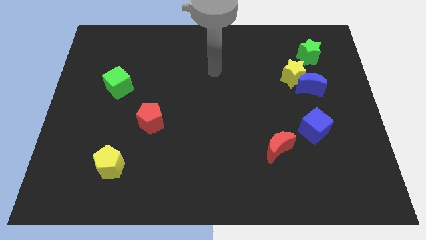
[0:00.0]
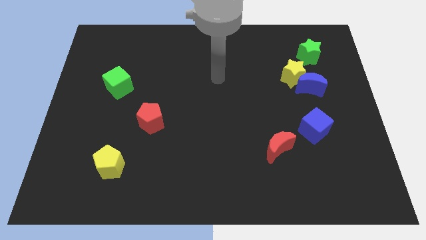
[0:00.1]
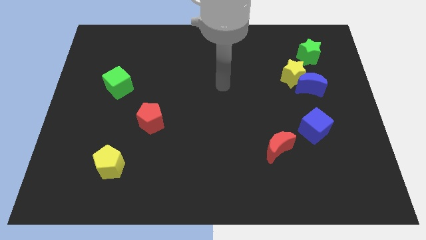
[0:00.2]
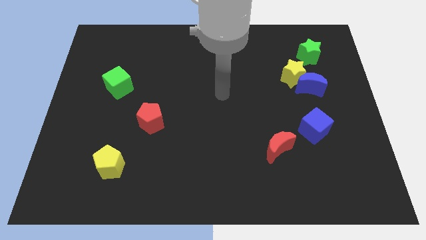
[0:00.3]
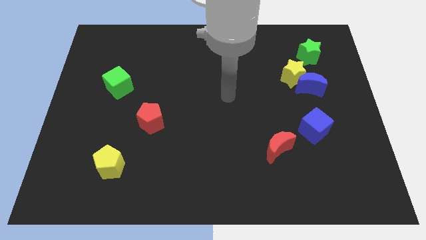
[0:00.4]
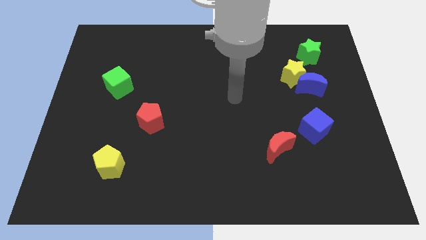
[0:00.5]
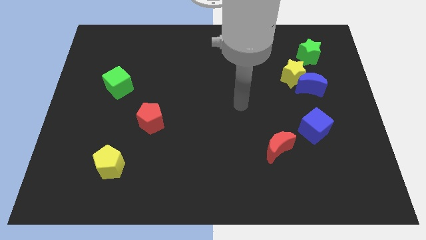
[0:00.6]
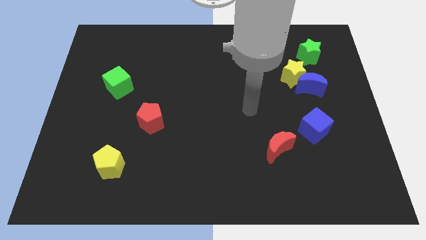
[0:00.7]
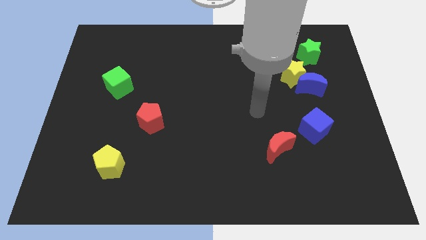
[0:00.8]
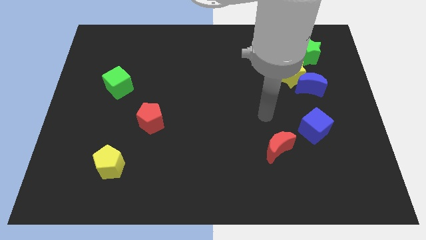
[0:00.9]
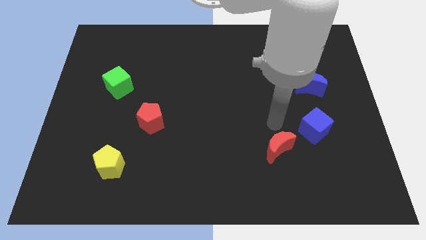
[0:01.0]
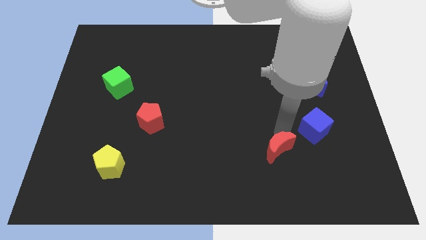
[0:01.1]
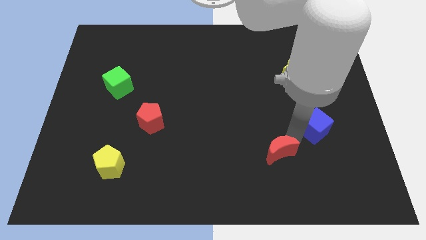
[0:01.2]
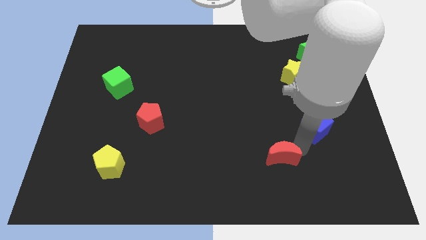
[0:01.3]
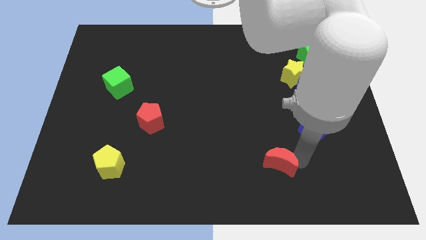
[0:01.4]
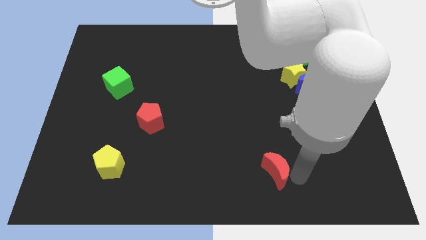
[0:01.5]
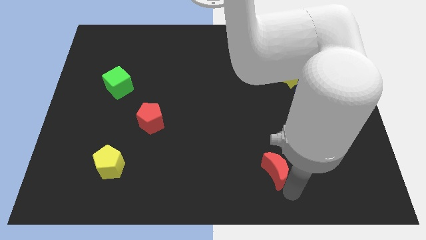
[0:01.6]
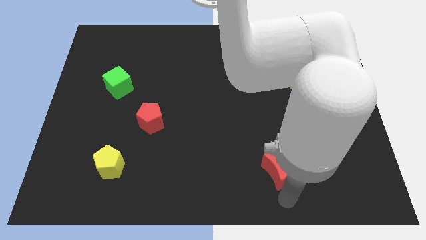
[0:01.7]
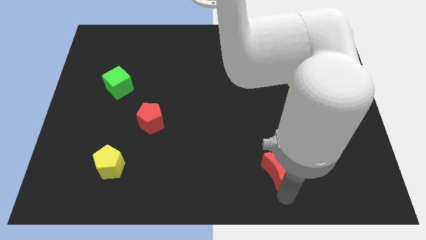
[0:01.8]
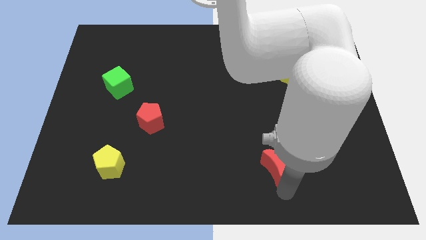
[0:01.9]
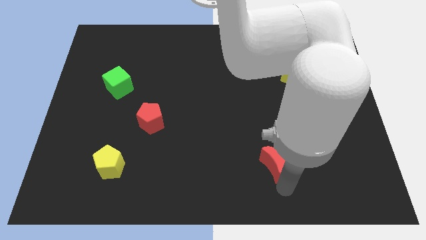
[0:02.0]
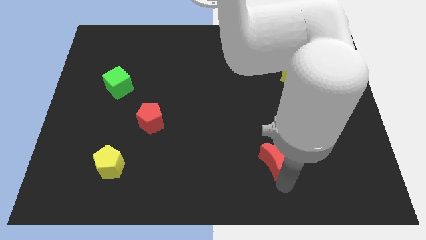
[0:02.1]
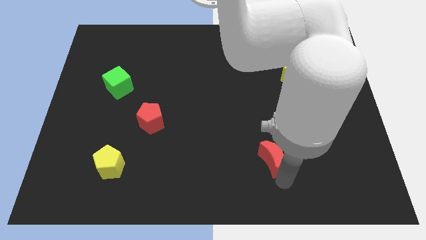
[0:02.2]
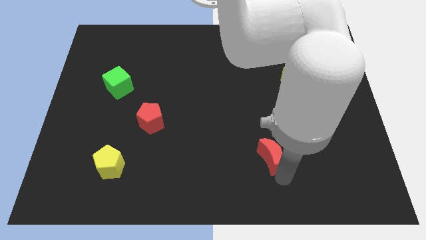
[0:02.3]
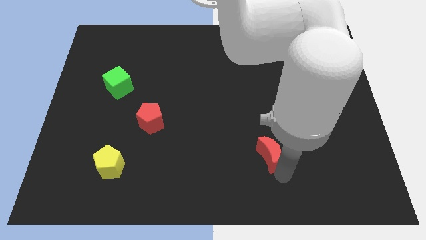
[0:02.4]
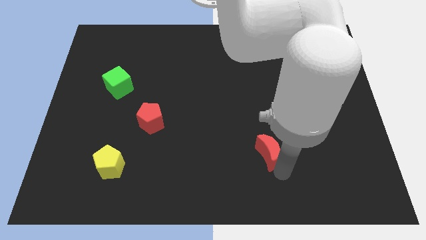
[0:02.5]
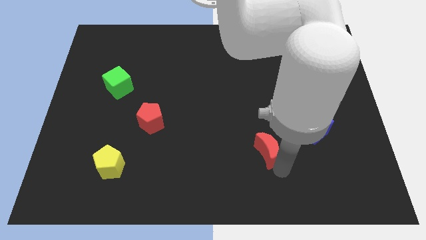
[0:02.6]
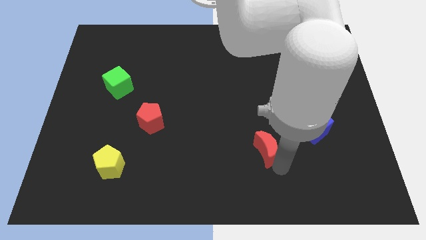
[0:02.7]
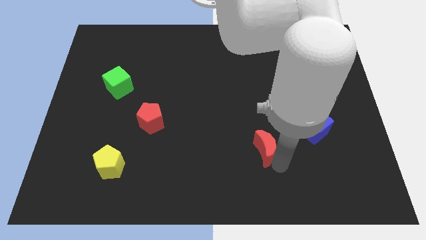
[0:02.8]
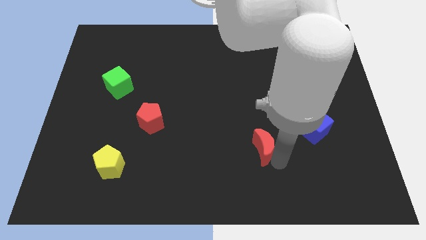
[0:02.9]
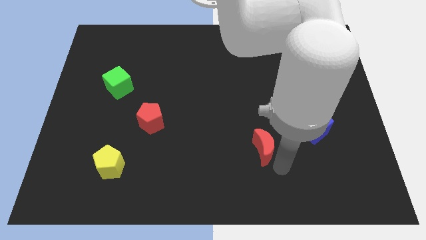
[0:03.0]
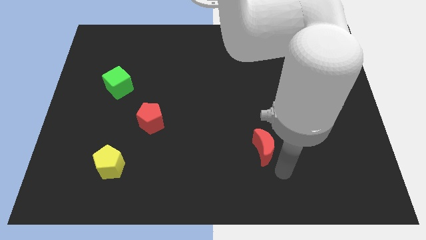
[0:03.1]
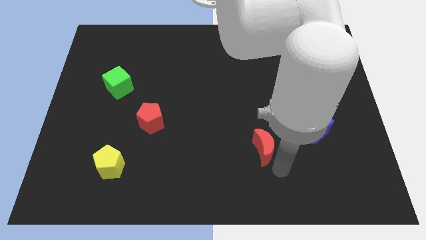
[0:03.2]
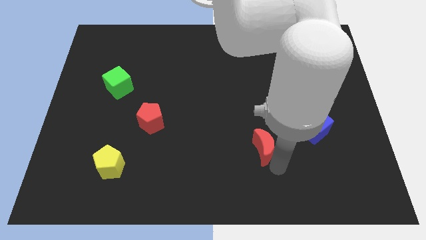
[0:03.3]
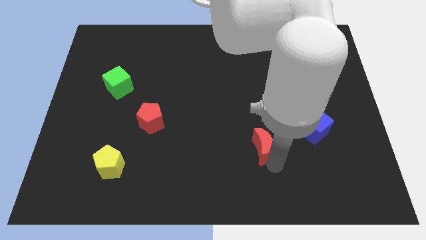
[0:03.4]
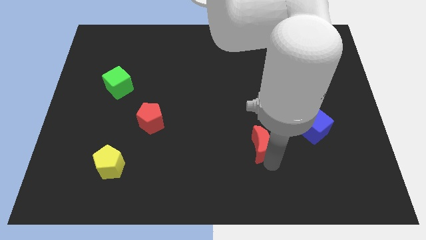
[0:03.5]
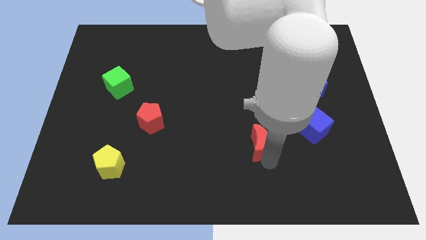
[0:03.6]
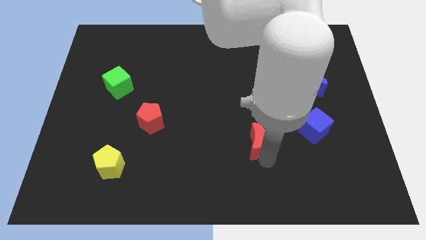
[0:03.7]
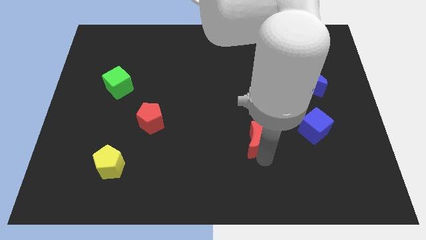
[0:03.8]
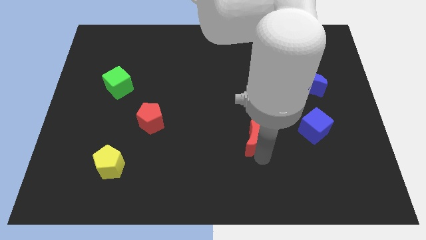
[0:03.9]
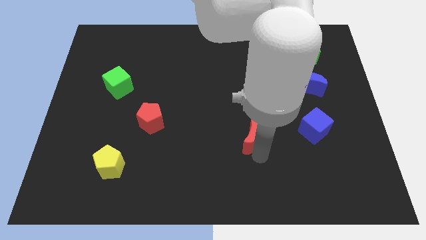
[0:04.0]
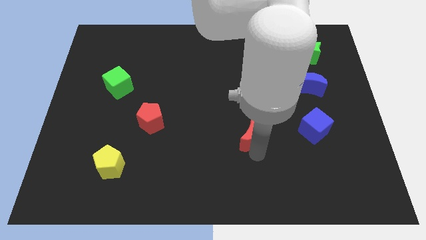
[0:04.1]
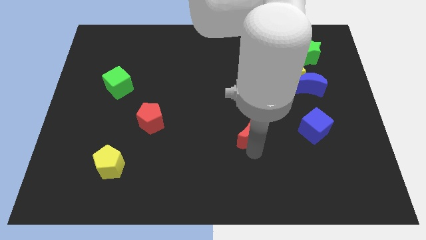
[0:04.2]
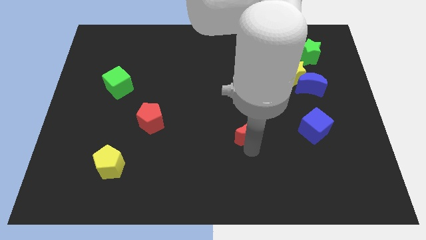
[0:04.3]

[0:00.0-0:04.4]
move the red moon a little bit diagonally up and left

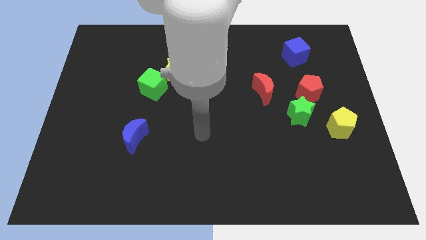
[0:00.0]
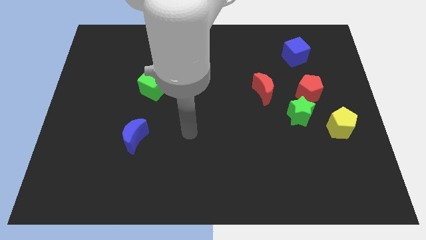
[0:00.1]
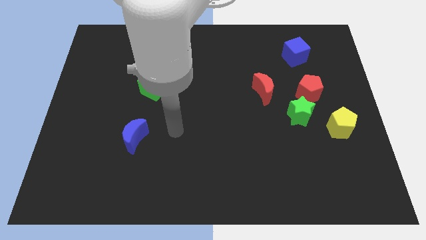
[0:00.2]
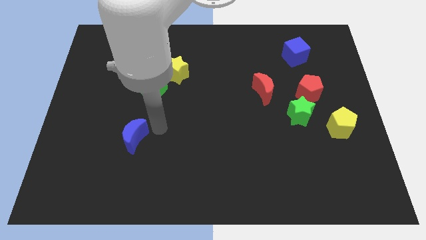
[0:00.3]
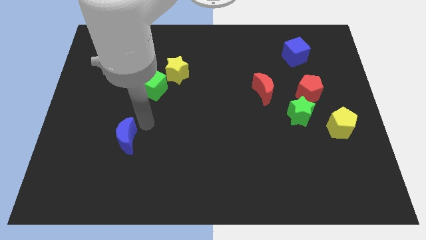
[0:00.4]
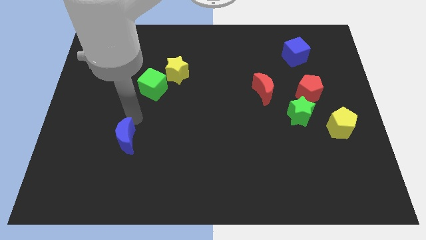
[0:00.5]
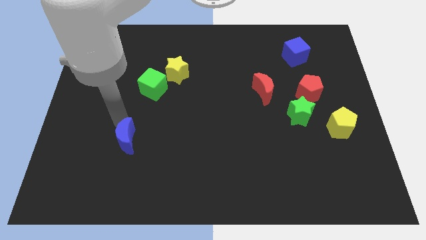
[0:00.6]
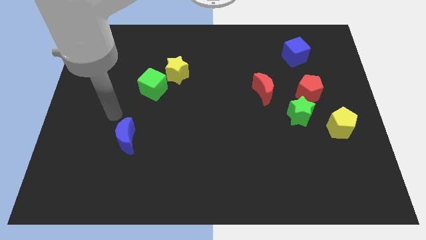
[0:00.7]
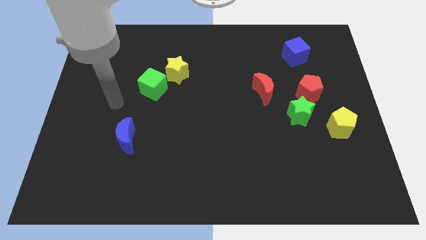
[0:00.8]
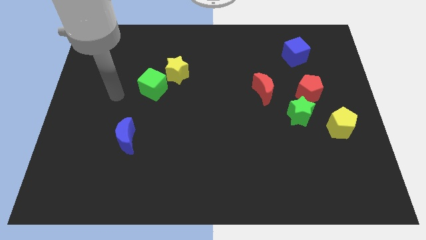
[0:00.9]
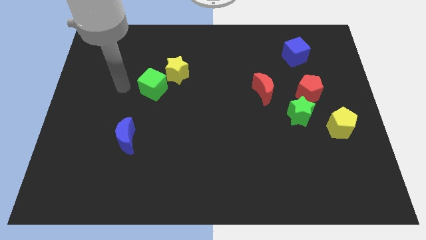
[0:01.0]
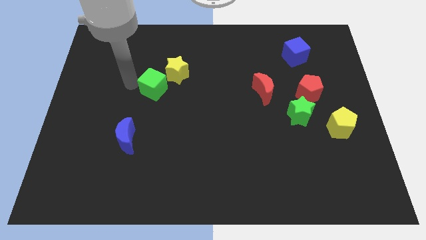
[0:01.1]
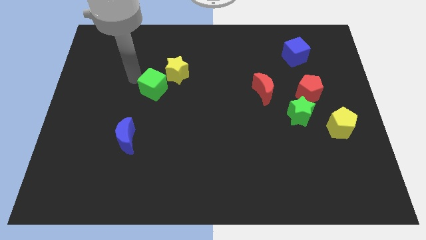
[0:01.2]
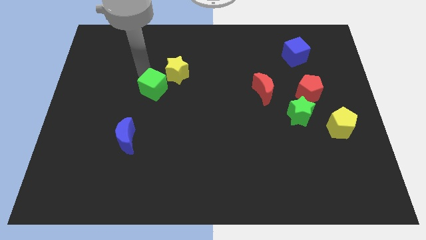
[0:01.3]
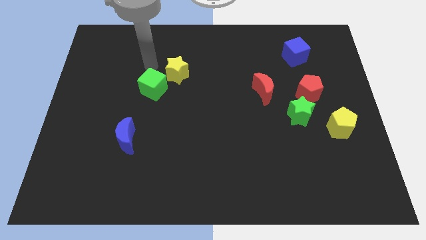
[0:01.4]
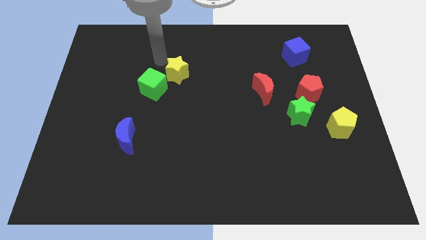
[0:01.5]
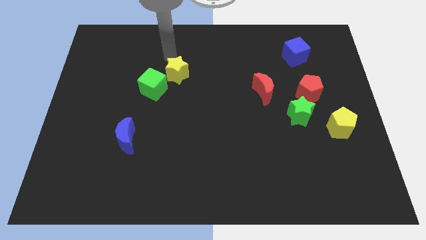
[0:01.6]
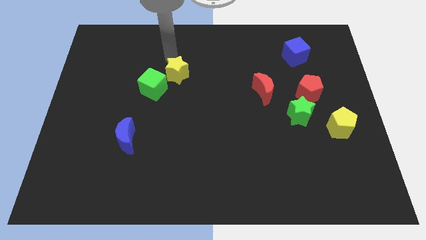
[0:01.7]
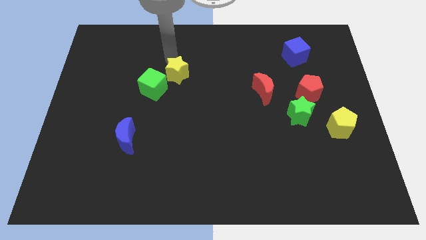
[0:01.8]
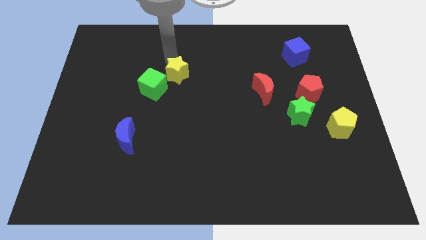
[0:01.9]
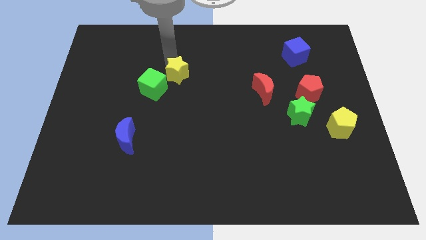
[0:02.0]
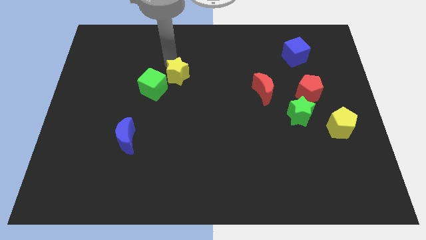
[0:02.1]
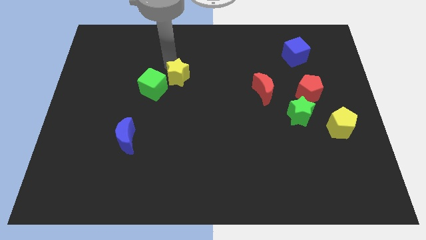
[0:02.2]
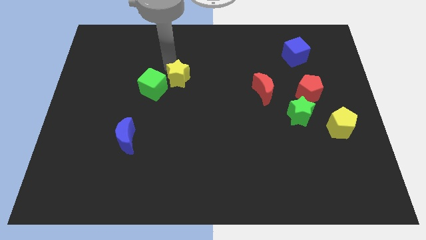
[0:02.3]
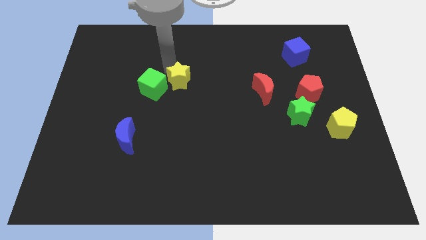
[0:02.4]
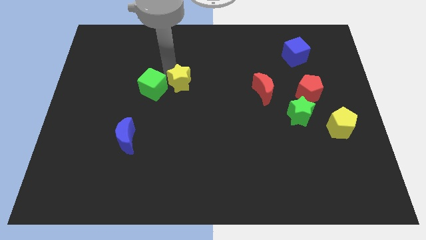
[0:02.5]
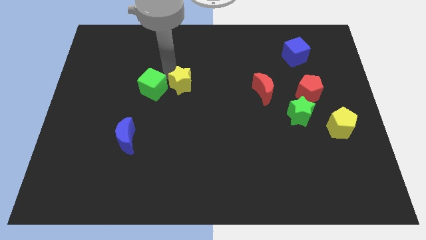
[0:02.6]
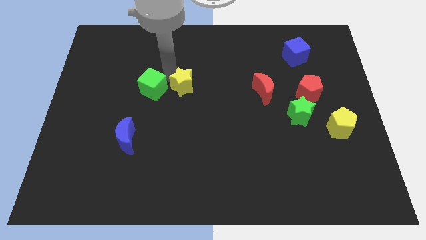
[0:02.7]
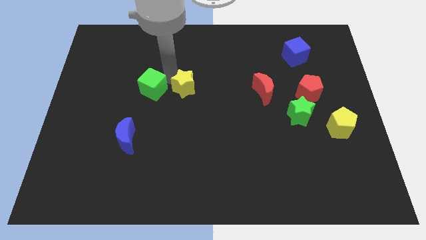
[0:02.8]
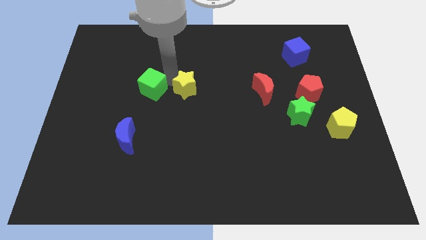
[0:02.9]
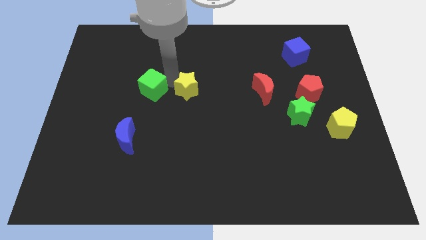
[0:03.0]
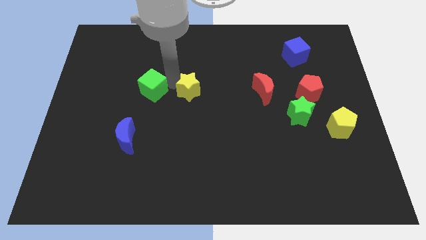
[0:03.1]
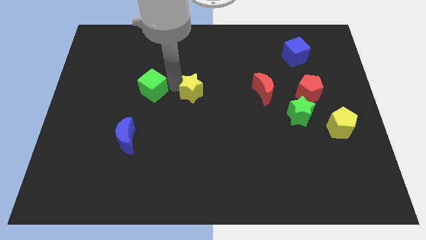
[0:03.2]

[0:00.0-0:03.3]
move the yellow star diagonally downwards and right a little

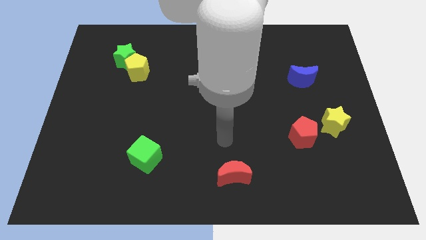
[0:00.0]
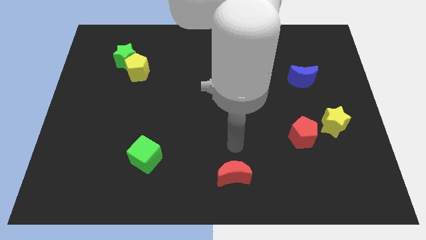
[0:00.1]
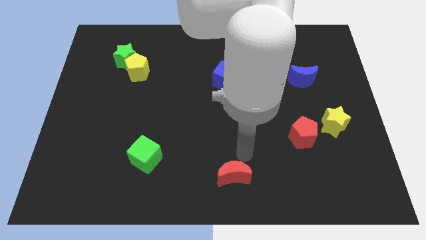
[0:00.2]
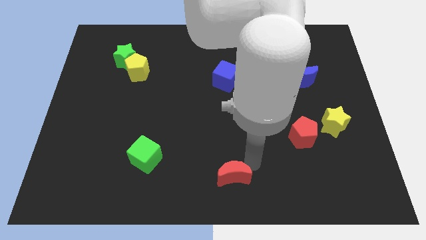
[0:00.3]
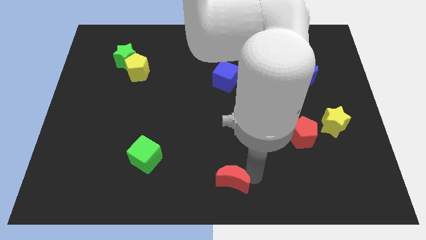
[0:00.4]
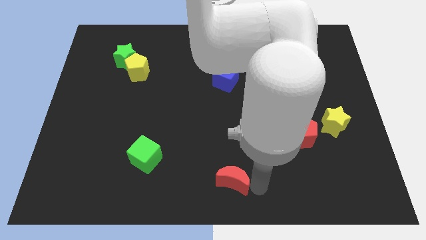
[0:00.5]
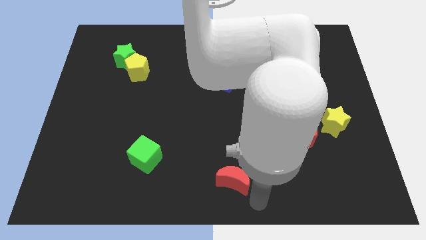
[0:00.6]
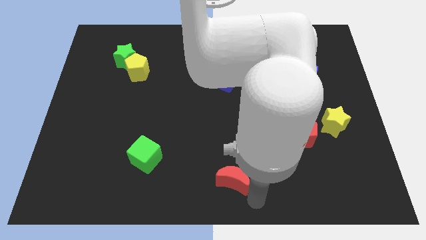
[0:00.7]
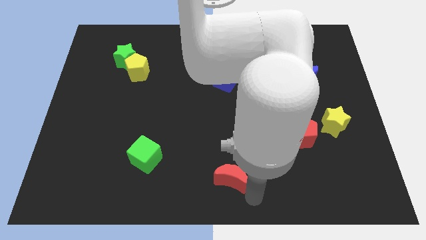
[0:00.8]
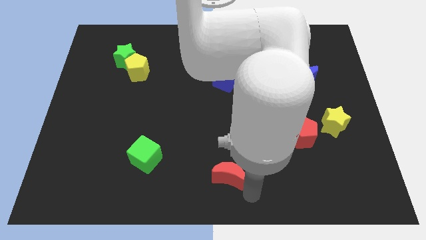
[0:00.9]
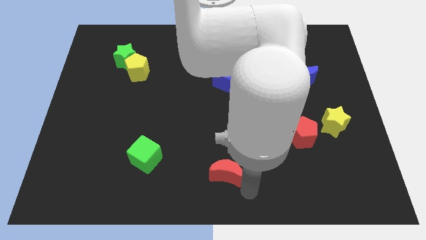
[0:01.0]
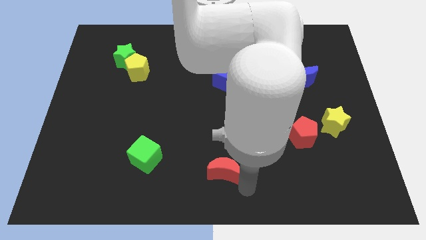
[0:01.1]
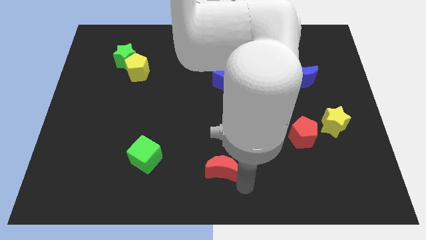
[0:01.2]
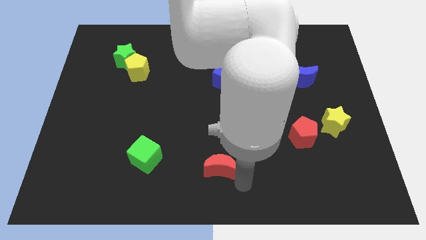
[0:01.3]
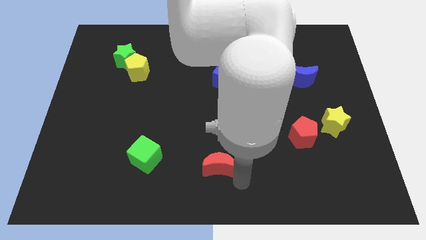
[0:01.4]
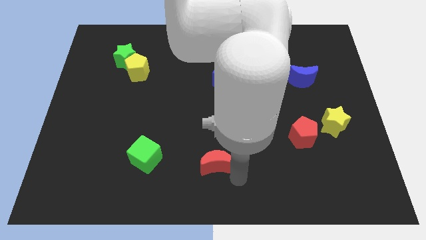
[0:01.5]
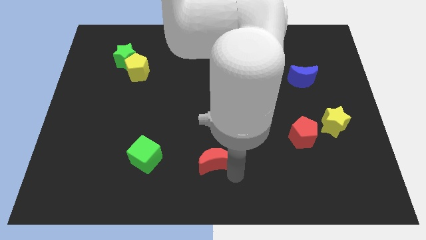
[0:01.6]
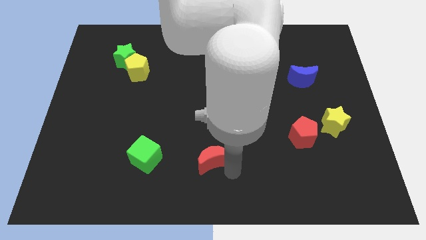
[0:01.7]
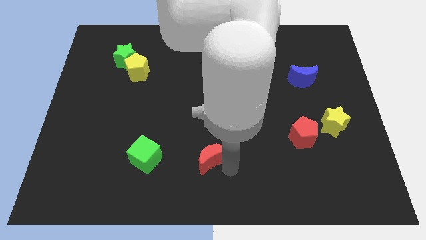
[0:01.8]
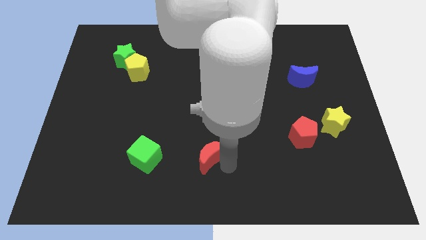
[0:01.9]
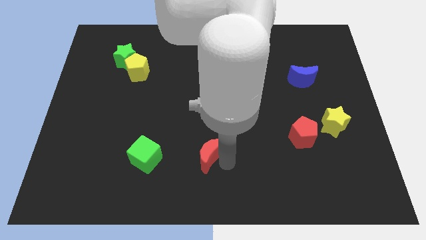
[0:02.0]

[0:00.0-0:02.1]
move the red moon up and then to the left a little
